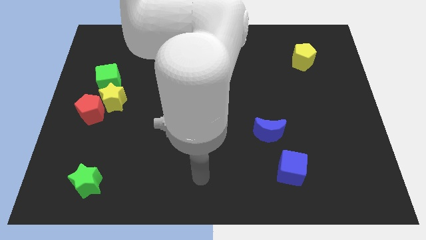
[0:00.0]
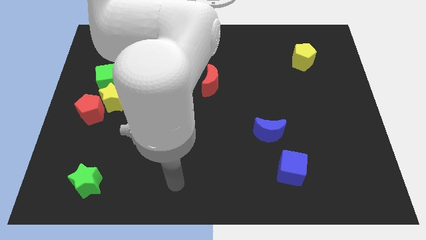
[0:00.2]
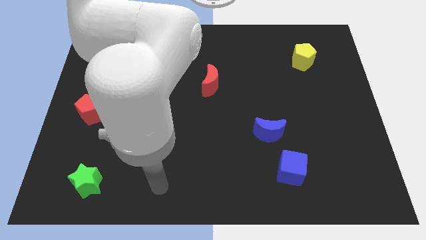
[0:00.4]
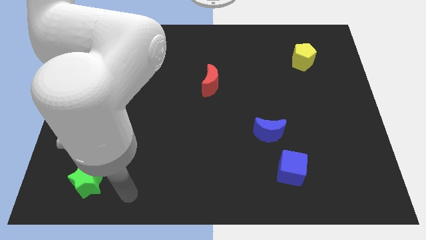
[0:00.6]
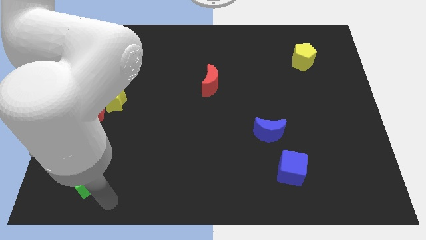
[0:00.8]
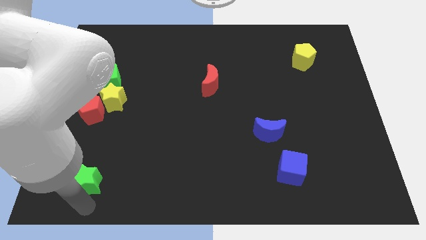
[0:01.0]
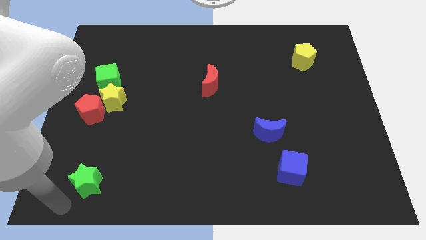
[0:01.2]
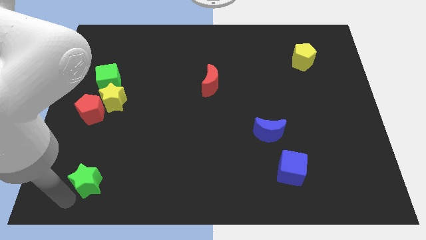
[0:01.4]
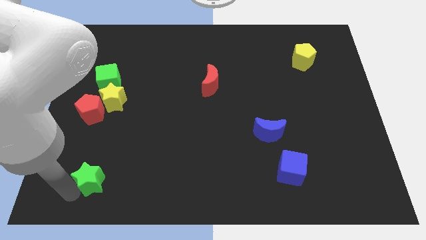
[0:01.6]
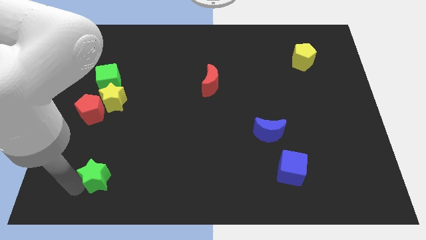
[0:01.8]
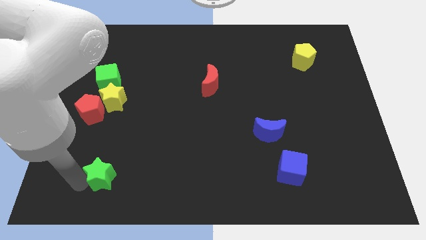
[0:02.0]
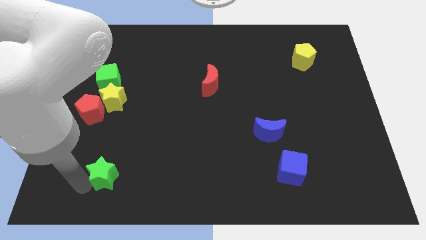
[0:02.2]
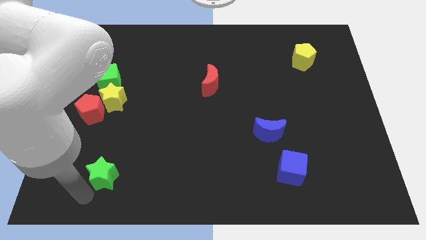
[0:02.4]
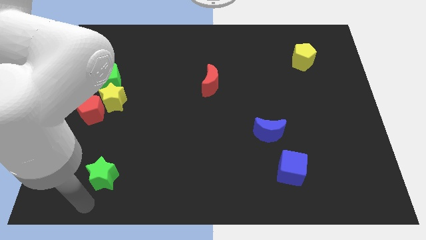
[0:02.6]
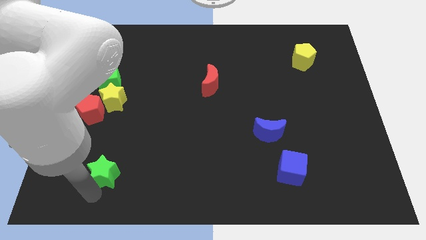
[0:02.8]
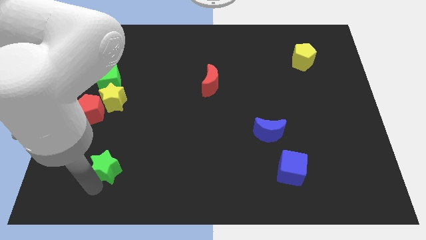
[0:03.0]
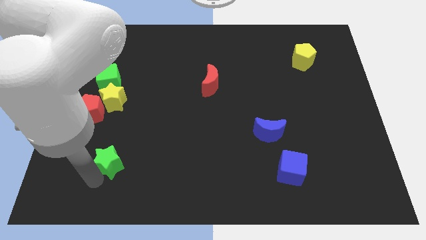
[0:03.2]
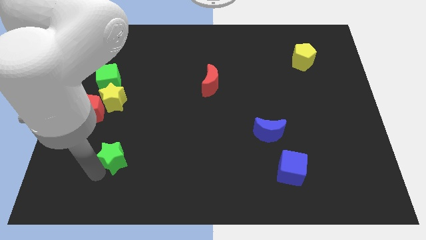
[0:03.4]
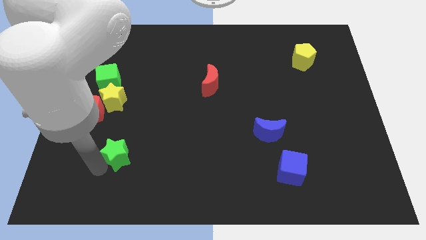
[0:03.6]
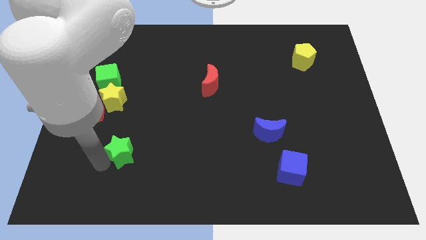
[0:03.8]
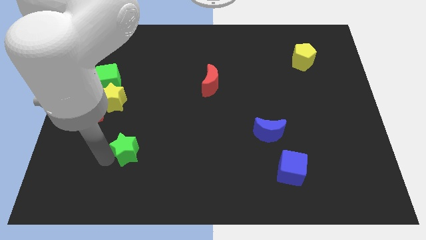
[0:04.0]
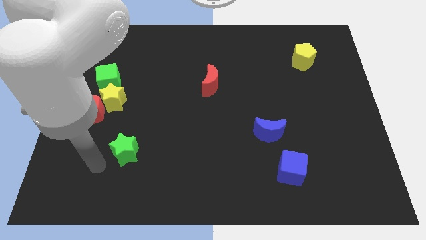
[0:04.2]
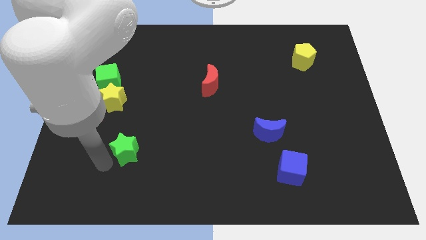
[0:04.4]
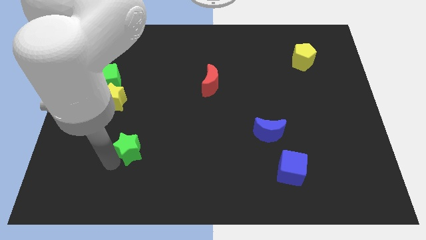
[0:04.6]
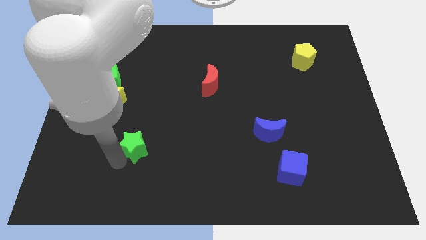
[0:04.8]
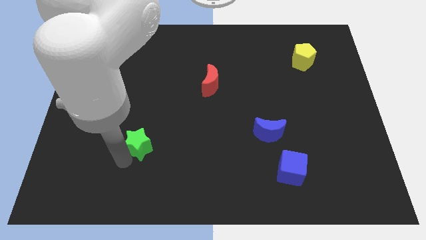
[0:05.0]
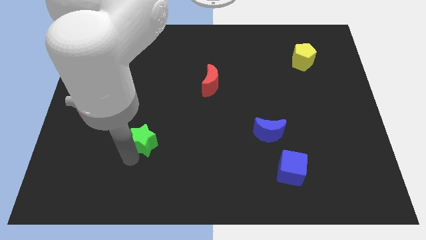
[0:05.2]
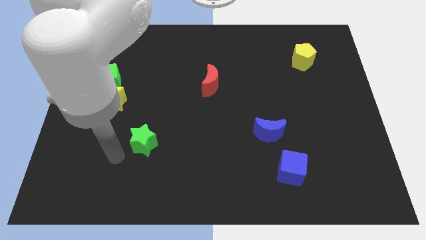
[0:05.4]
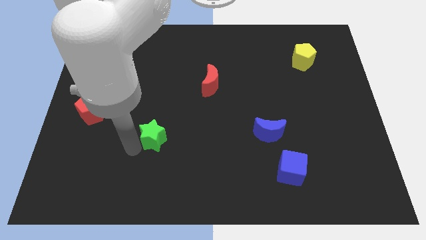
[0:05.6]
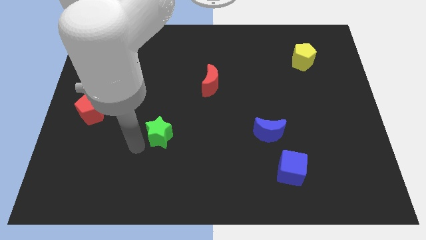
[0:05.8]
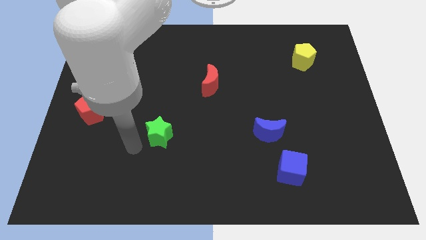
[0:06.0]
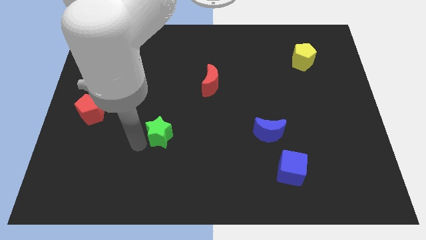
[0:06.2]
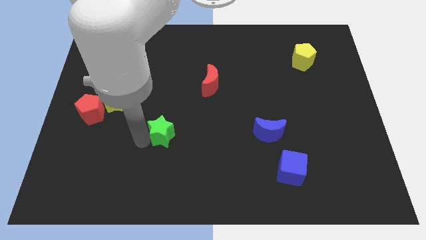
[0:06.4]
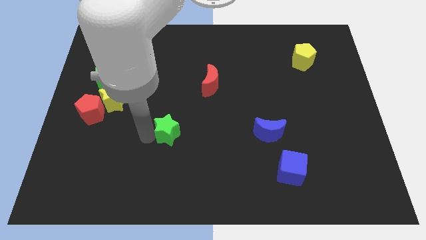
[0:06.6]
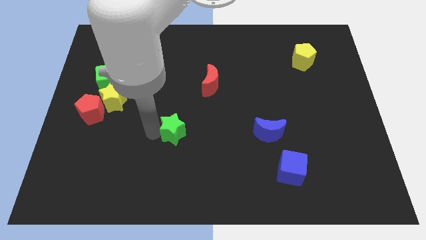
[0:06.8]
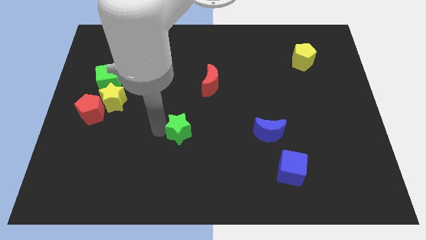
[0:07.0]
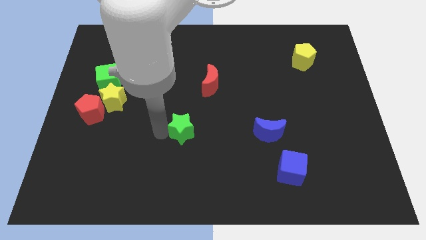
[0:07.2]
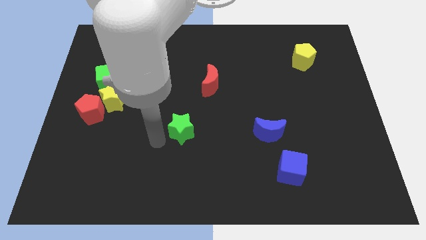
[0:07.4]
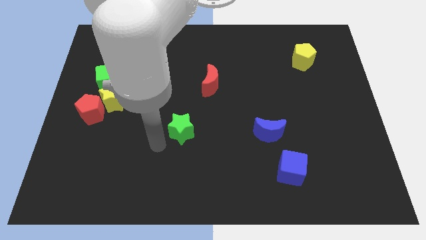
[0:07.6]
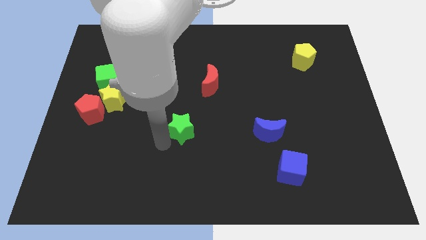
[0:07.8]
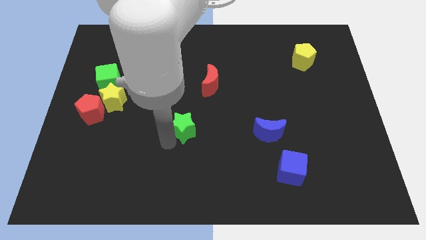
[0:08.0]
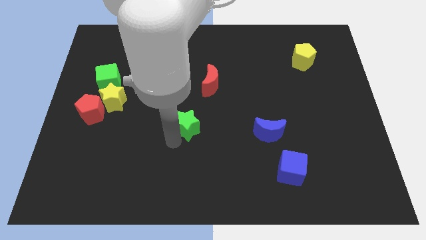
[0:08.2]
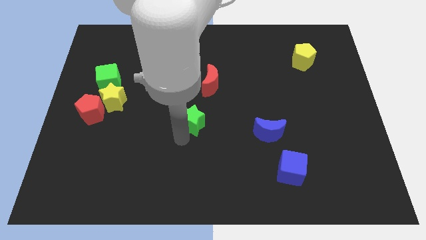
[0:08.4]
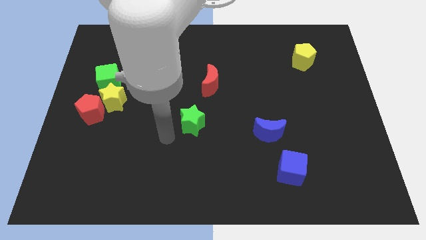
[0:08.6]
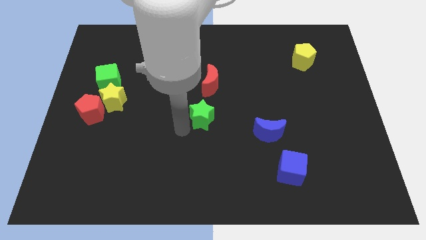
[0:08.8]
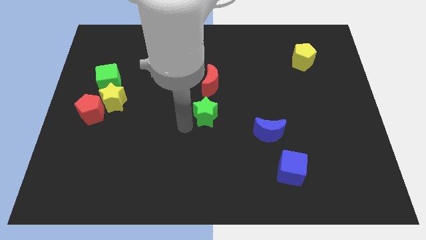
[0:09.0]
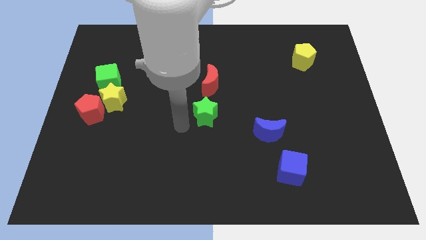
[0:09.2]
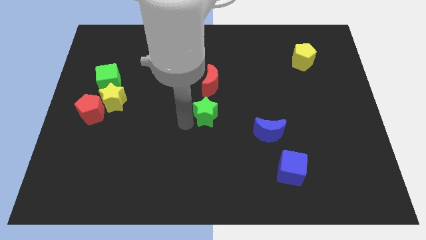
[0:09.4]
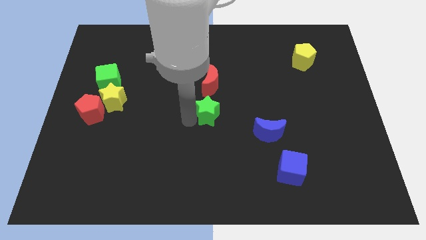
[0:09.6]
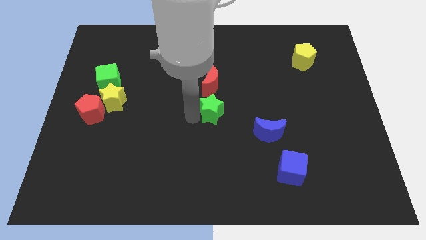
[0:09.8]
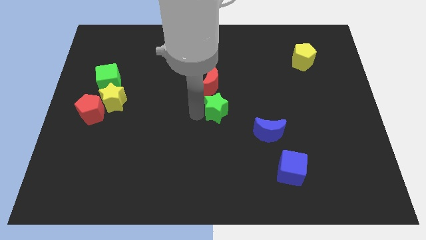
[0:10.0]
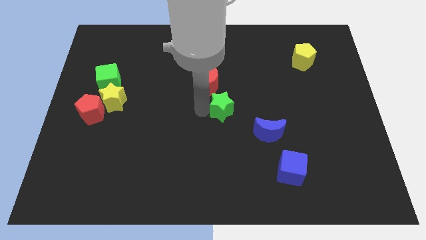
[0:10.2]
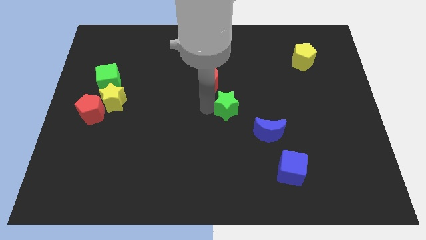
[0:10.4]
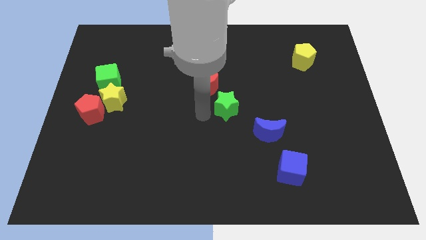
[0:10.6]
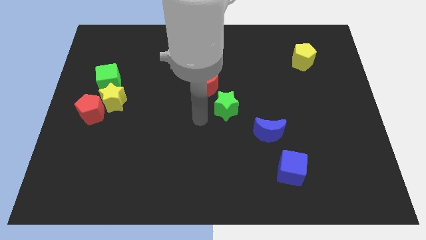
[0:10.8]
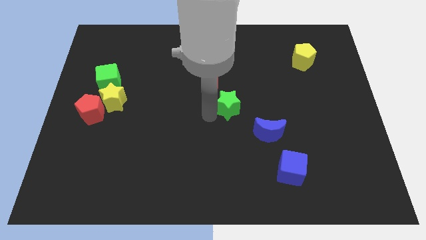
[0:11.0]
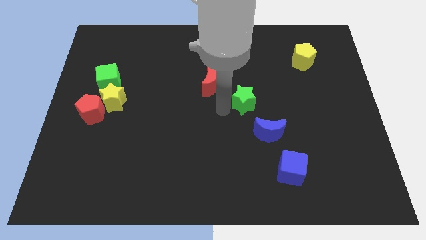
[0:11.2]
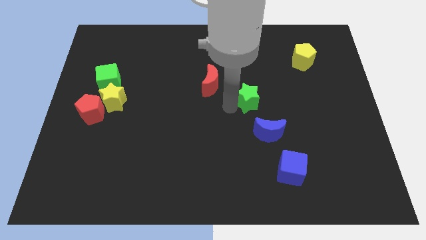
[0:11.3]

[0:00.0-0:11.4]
slide the green star above the blue moon

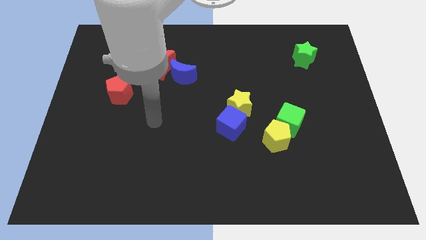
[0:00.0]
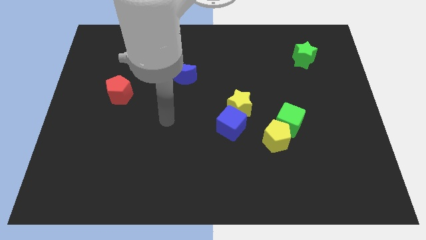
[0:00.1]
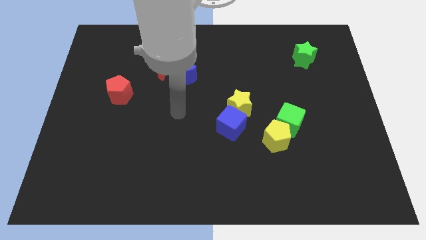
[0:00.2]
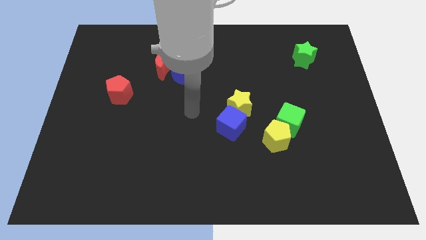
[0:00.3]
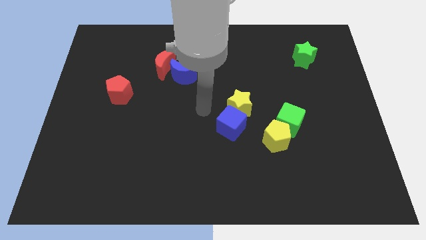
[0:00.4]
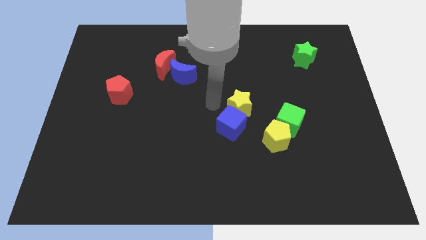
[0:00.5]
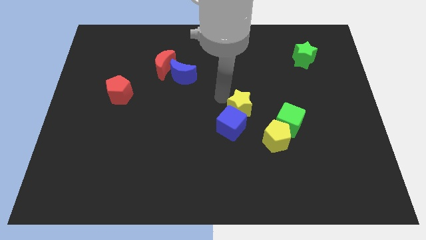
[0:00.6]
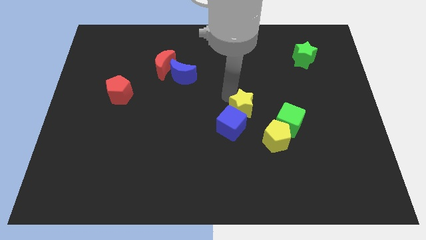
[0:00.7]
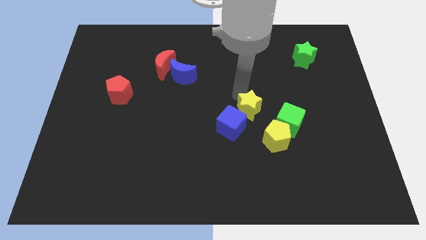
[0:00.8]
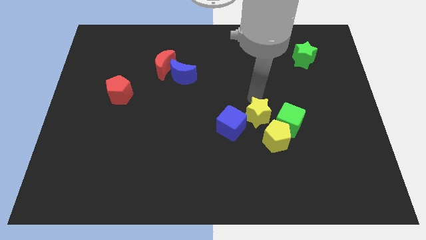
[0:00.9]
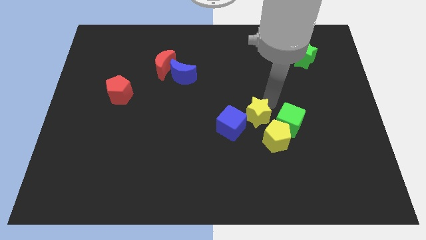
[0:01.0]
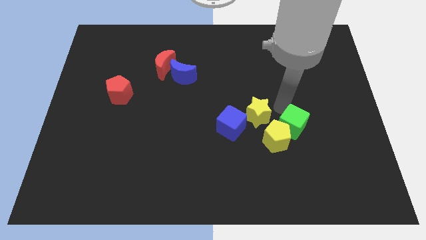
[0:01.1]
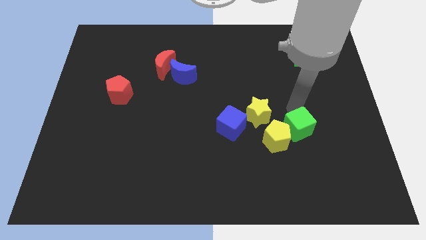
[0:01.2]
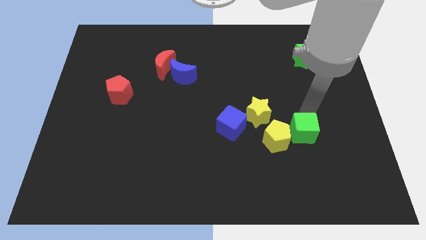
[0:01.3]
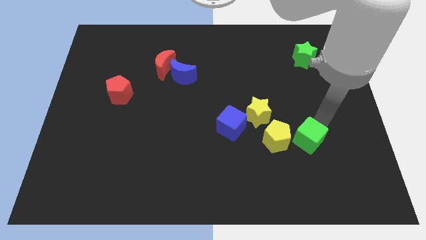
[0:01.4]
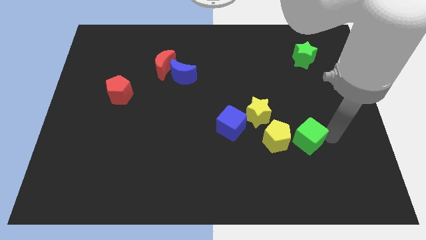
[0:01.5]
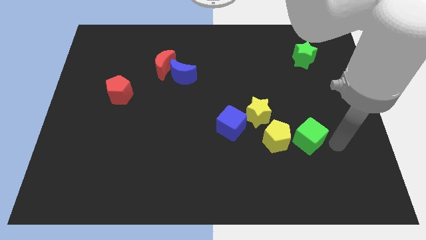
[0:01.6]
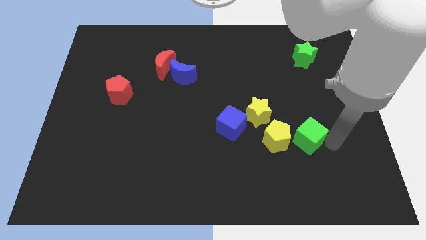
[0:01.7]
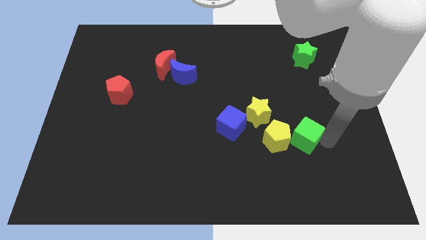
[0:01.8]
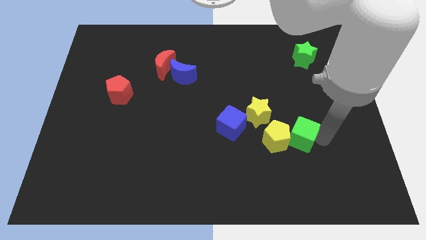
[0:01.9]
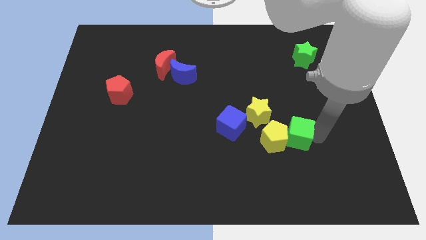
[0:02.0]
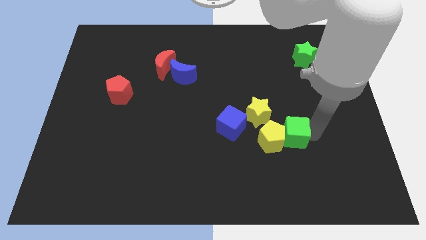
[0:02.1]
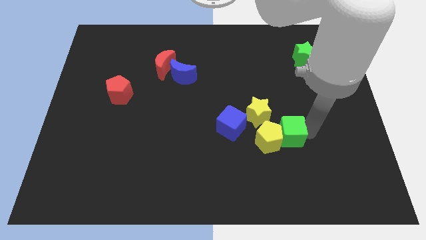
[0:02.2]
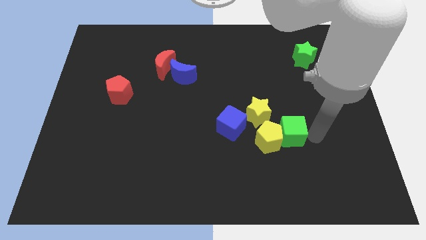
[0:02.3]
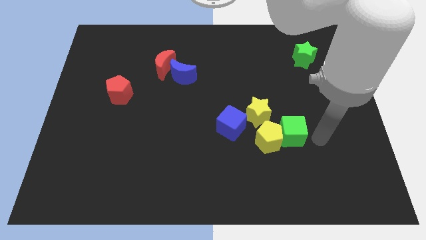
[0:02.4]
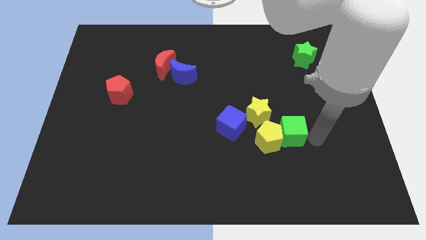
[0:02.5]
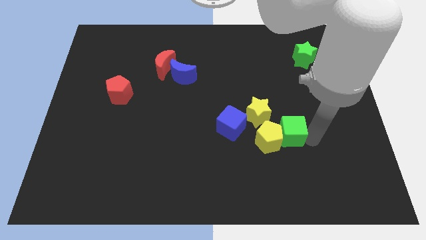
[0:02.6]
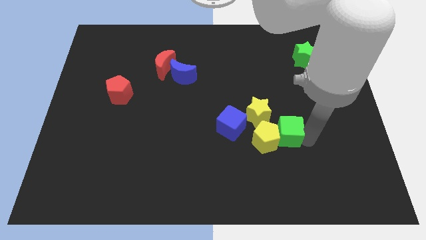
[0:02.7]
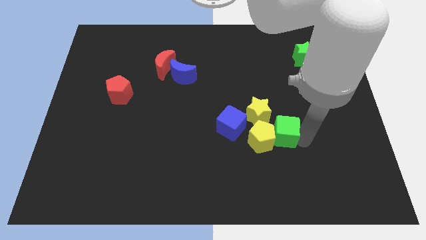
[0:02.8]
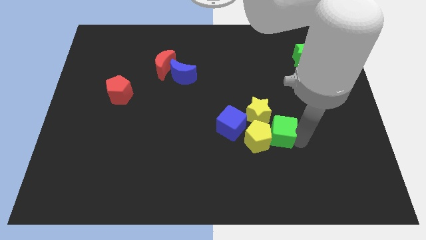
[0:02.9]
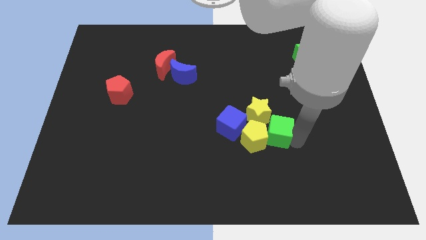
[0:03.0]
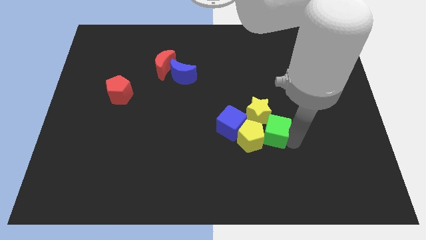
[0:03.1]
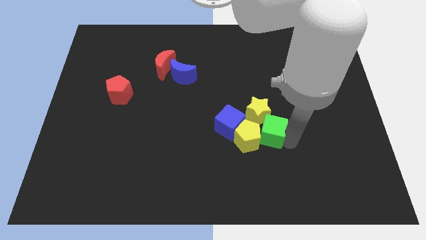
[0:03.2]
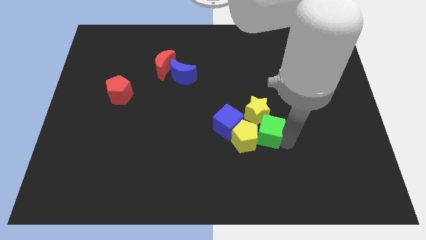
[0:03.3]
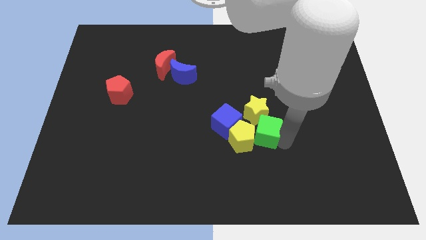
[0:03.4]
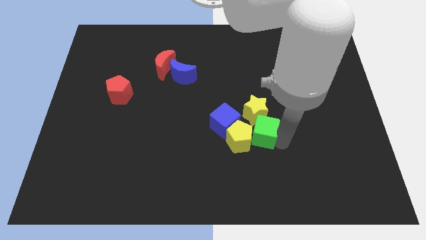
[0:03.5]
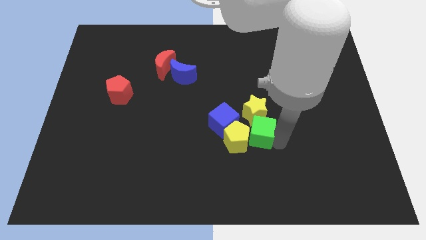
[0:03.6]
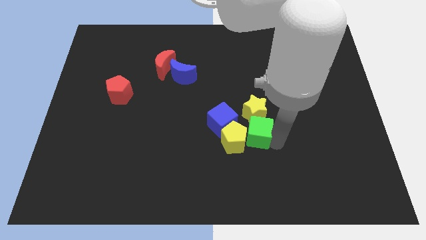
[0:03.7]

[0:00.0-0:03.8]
slide the green cube diagonally down and to the left of the yellow star
